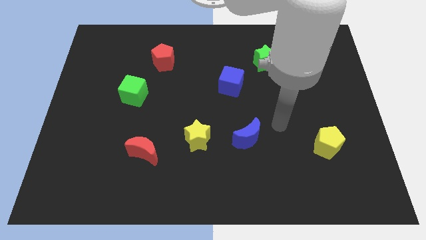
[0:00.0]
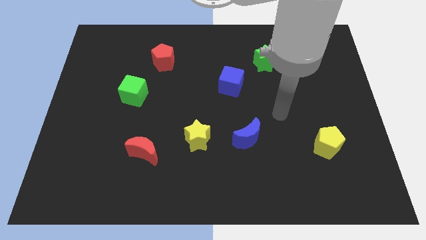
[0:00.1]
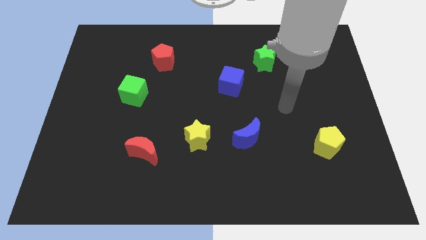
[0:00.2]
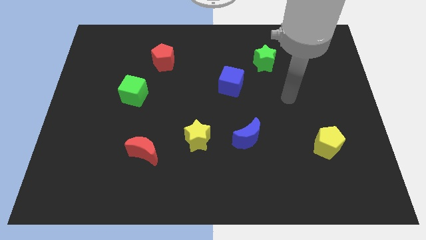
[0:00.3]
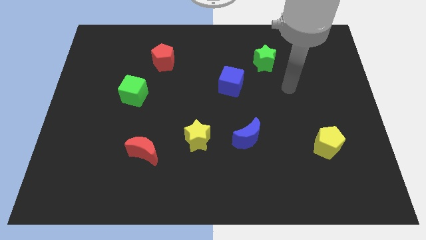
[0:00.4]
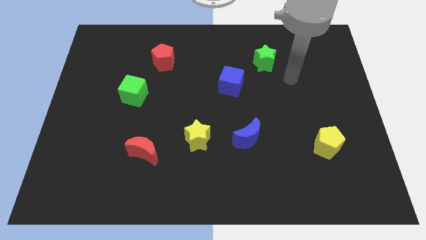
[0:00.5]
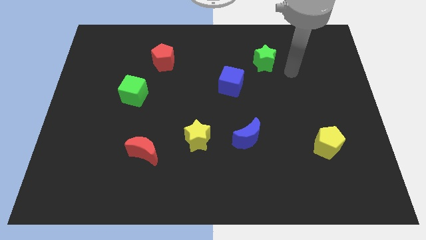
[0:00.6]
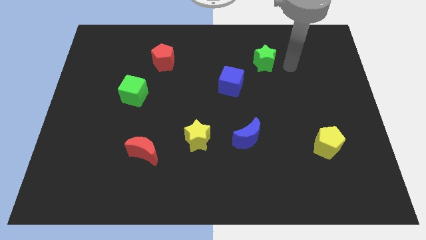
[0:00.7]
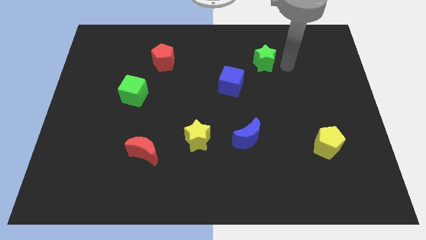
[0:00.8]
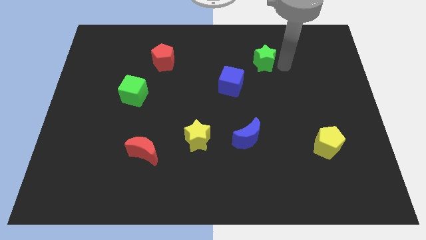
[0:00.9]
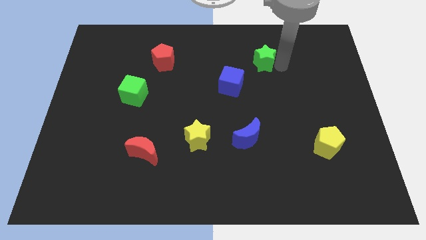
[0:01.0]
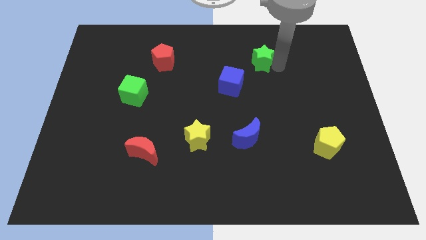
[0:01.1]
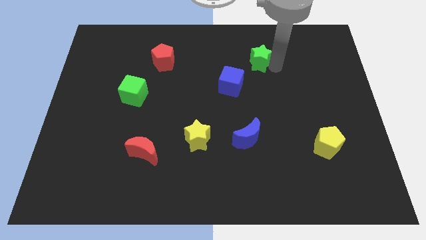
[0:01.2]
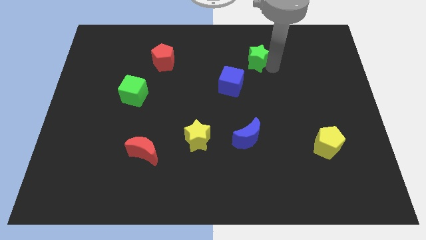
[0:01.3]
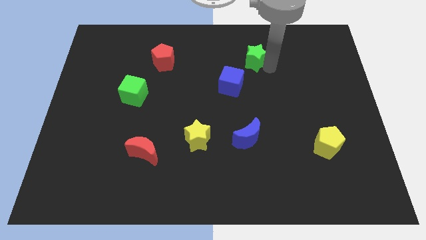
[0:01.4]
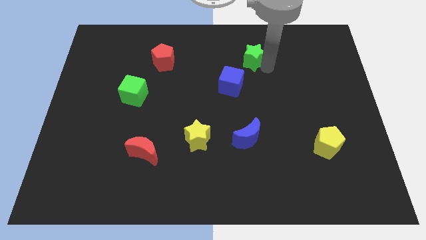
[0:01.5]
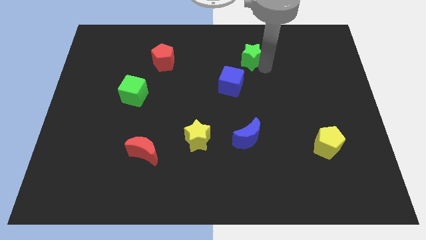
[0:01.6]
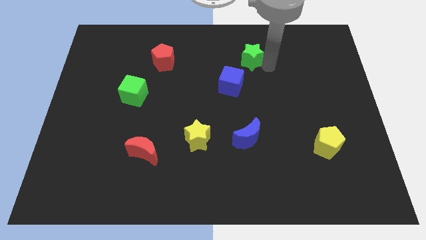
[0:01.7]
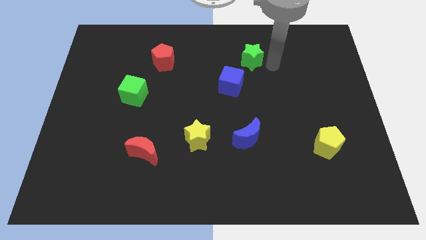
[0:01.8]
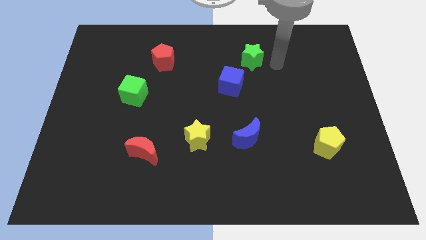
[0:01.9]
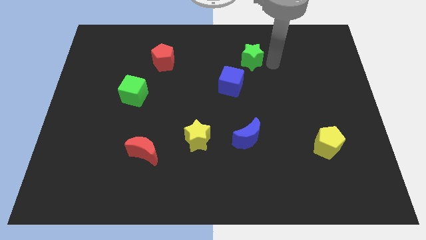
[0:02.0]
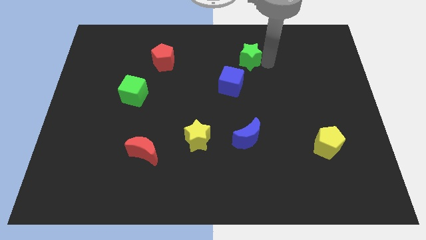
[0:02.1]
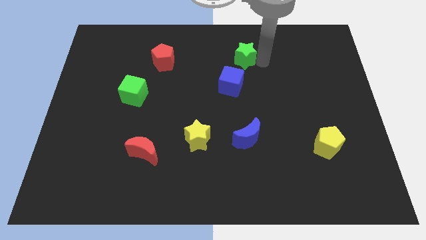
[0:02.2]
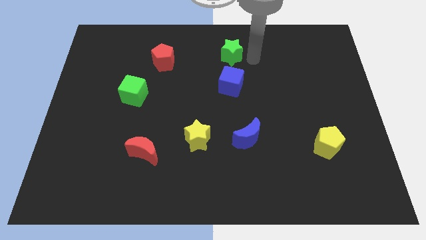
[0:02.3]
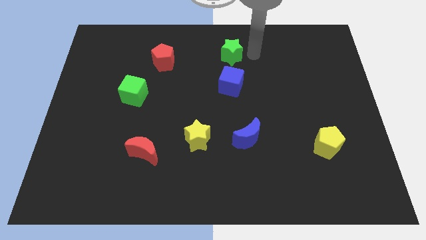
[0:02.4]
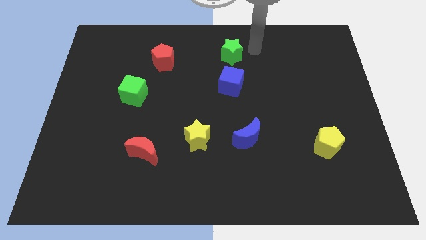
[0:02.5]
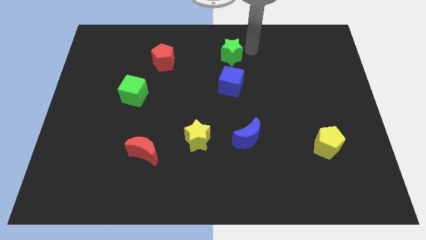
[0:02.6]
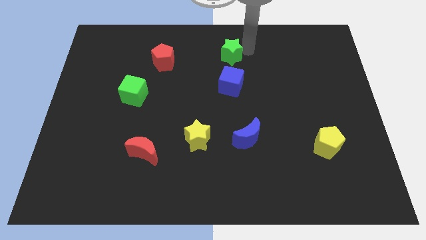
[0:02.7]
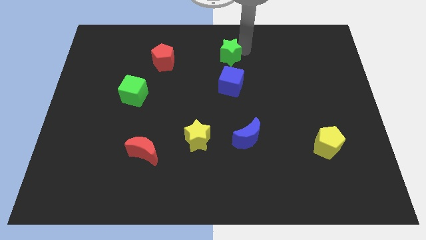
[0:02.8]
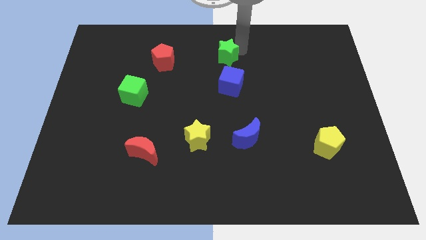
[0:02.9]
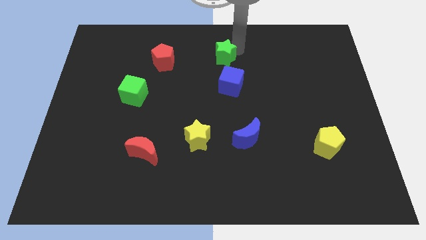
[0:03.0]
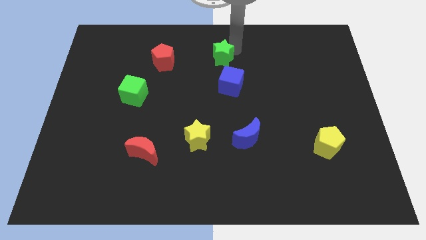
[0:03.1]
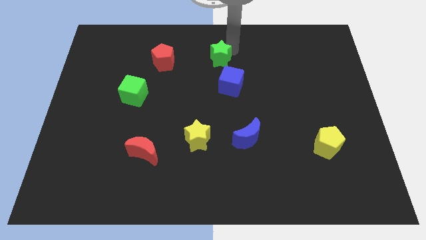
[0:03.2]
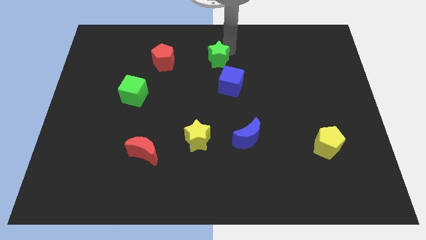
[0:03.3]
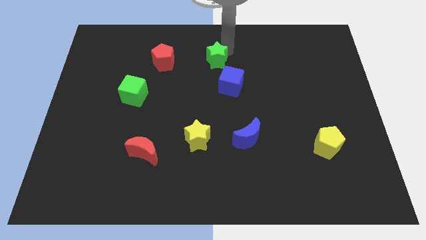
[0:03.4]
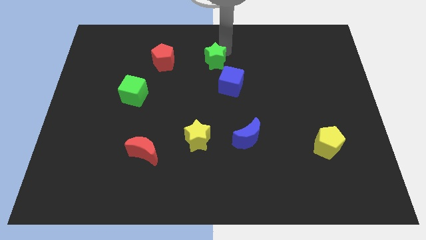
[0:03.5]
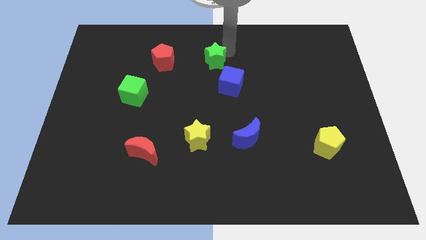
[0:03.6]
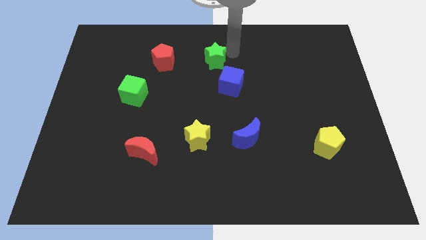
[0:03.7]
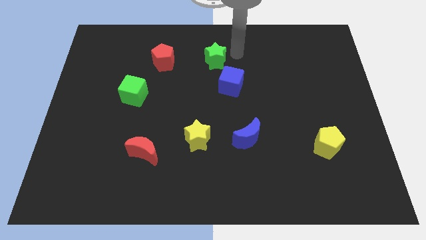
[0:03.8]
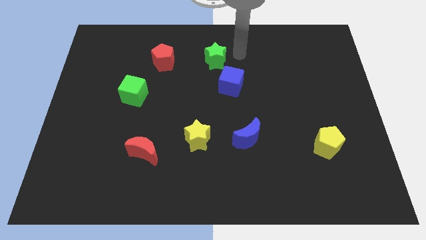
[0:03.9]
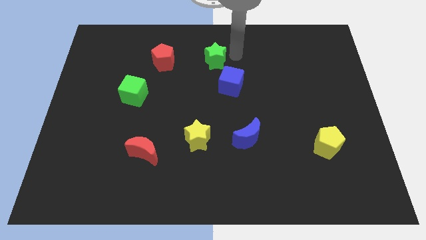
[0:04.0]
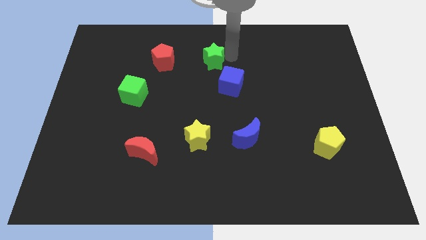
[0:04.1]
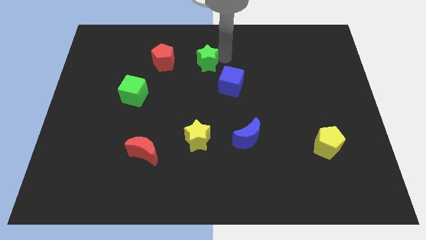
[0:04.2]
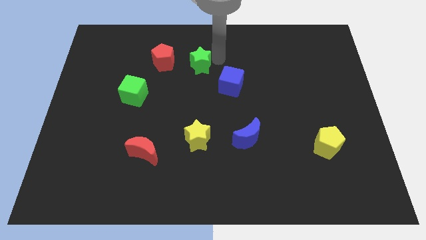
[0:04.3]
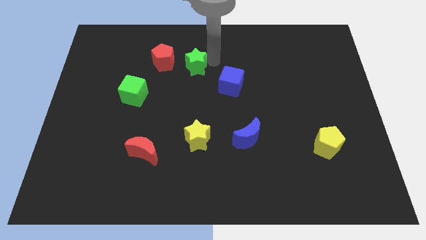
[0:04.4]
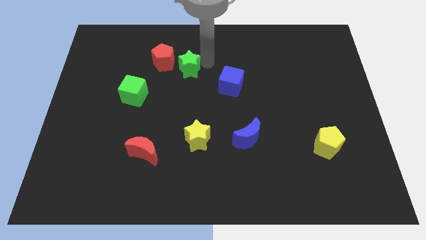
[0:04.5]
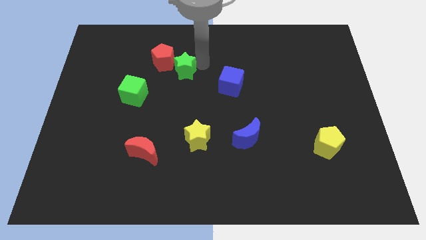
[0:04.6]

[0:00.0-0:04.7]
move the green star to the left

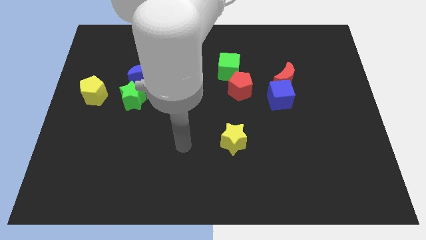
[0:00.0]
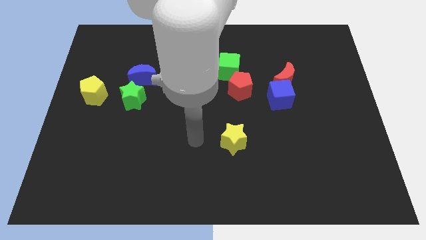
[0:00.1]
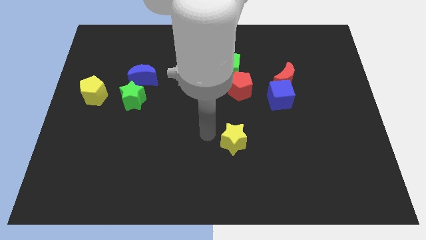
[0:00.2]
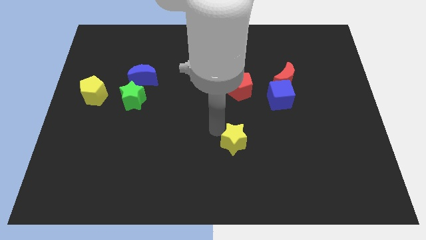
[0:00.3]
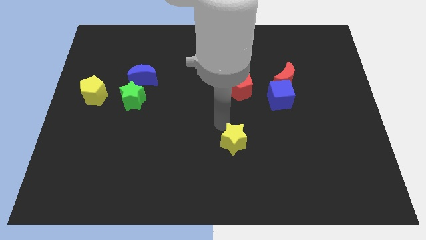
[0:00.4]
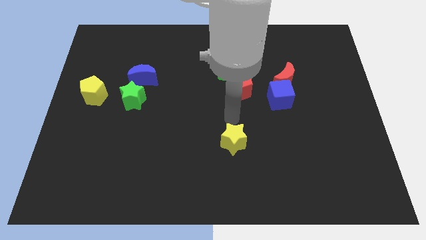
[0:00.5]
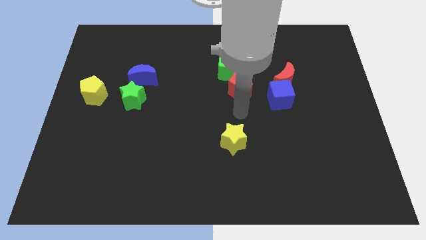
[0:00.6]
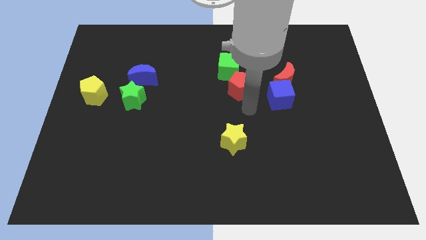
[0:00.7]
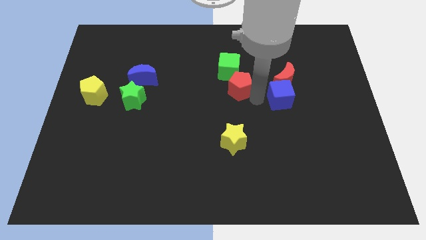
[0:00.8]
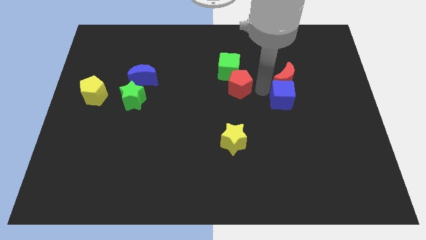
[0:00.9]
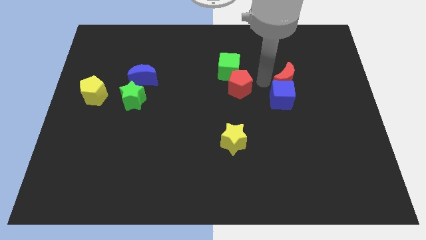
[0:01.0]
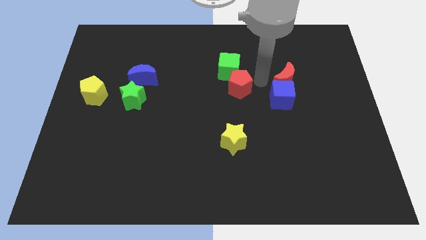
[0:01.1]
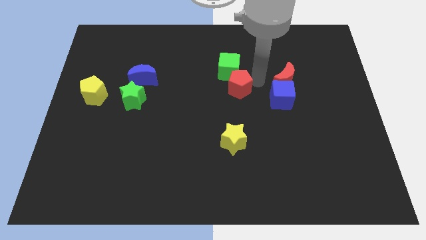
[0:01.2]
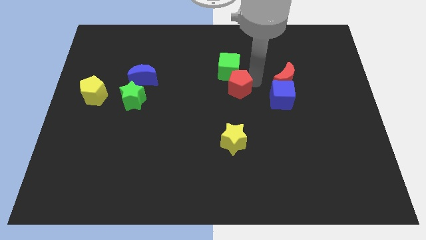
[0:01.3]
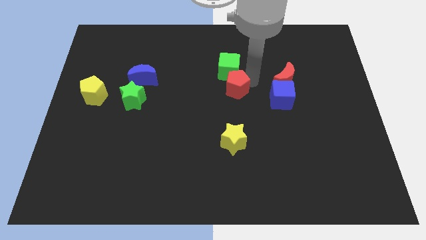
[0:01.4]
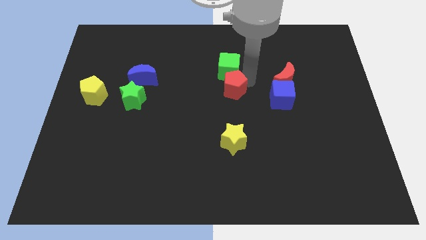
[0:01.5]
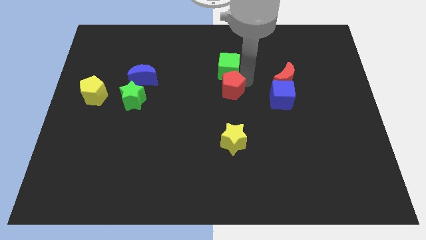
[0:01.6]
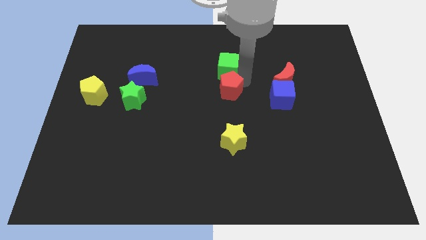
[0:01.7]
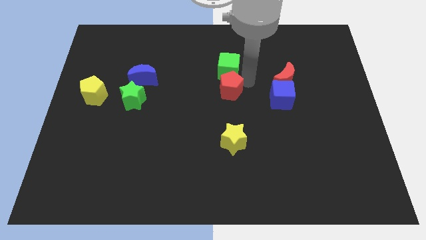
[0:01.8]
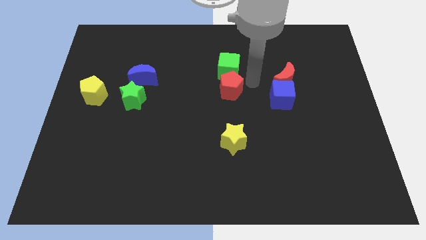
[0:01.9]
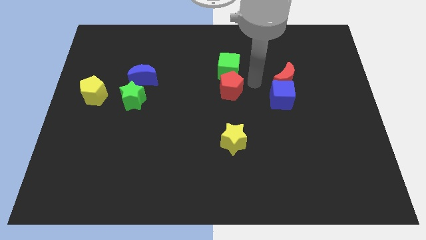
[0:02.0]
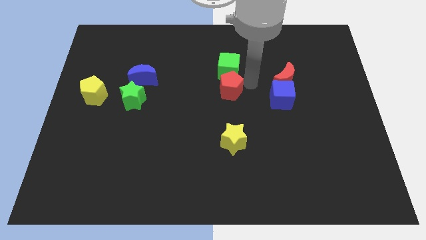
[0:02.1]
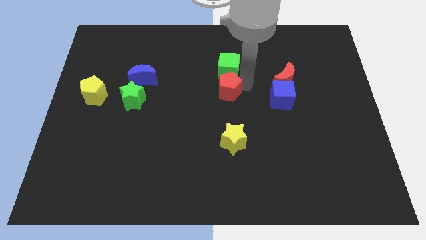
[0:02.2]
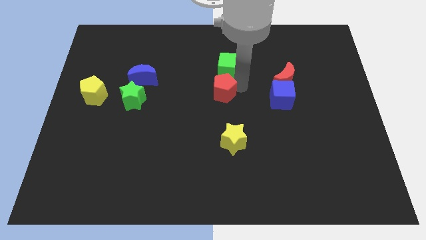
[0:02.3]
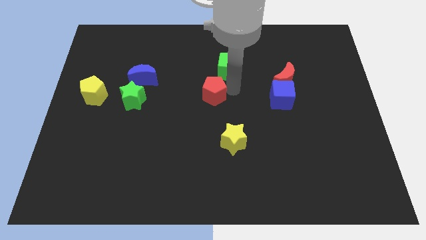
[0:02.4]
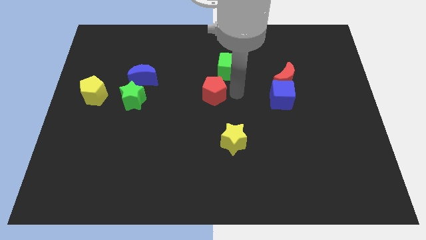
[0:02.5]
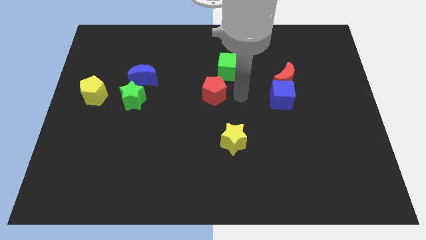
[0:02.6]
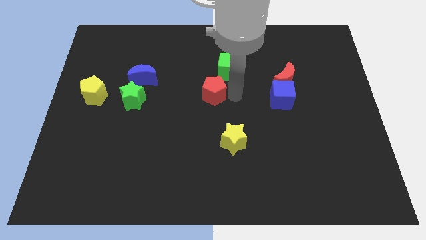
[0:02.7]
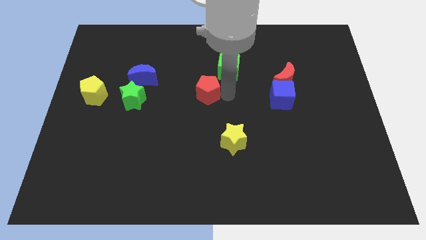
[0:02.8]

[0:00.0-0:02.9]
push the red pentagon a little left

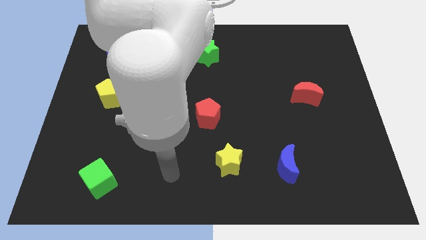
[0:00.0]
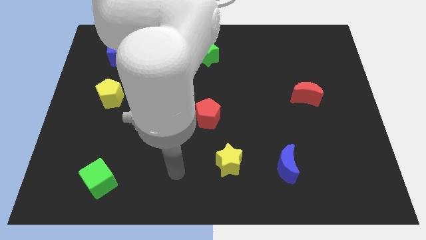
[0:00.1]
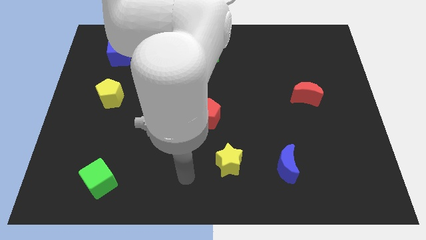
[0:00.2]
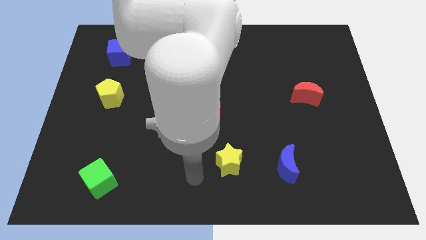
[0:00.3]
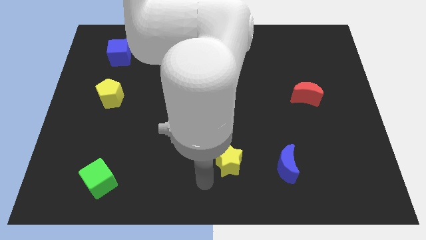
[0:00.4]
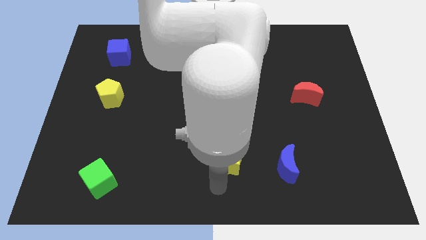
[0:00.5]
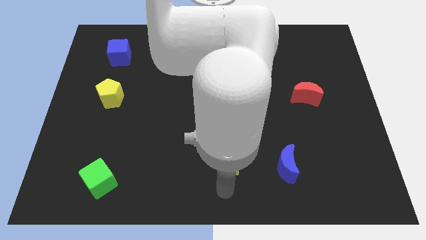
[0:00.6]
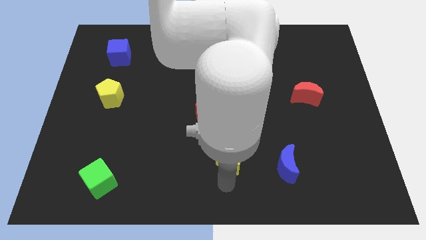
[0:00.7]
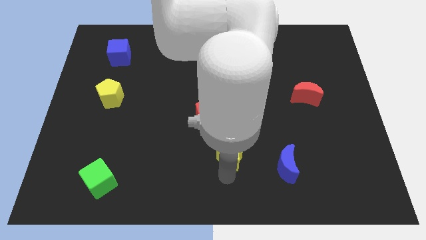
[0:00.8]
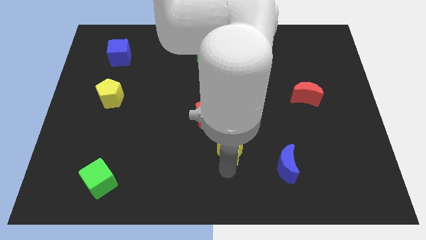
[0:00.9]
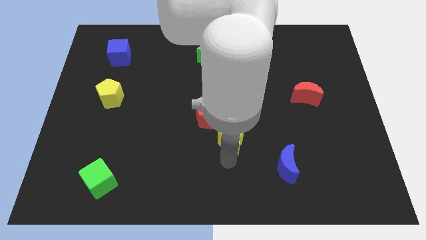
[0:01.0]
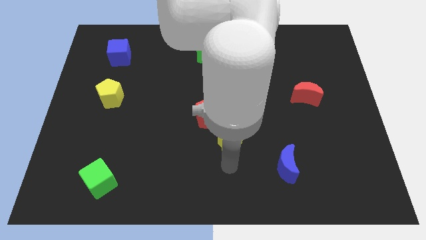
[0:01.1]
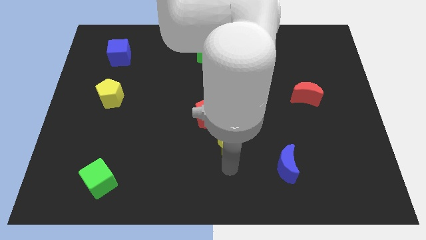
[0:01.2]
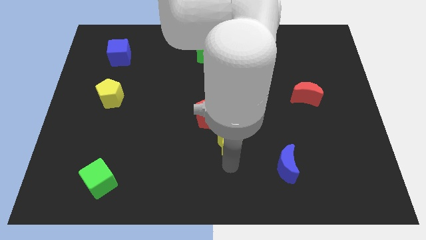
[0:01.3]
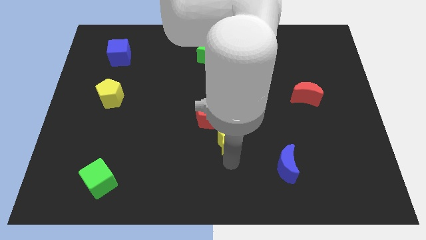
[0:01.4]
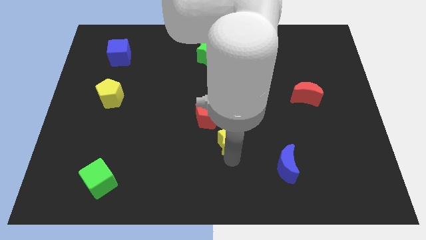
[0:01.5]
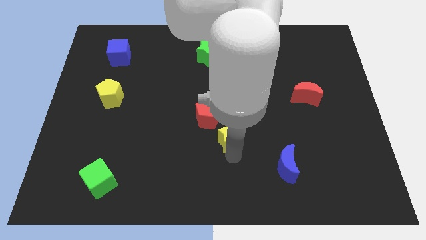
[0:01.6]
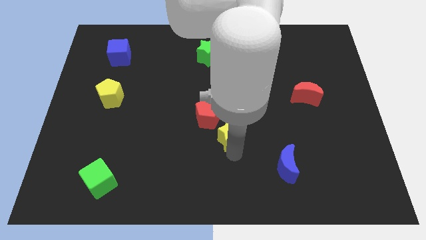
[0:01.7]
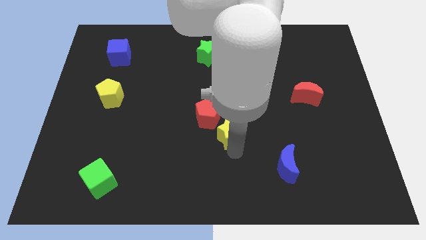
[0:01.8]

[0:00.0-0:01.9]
slide the yellow star somewhat upwards
